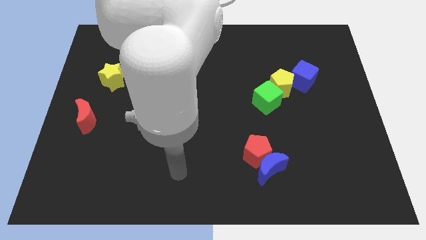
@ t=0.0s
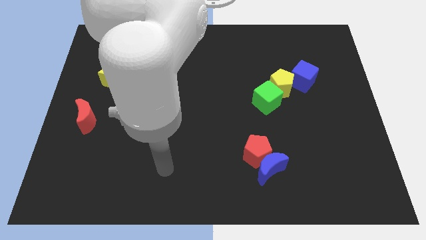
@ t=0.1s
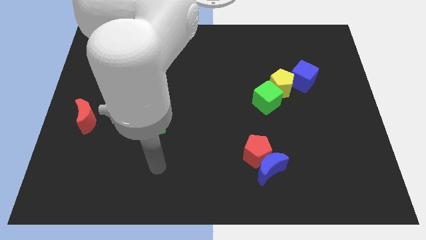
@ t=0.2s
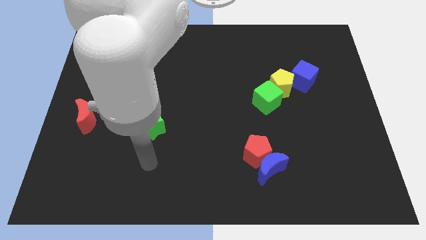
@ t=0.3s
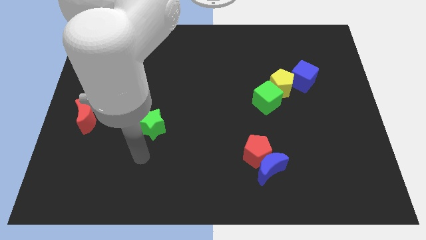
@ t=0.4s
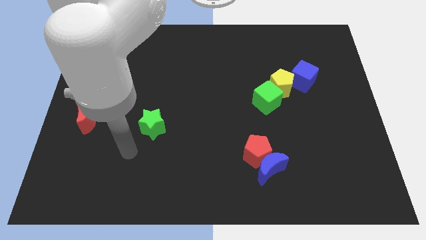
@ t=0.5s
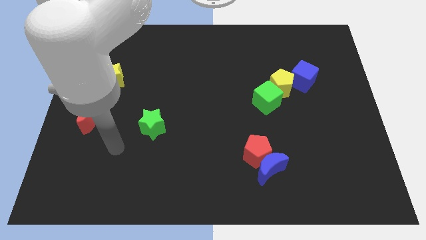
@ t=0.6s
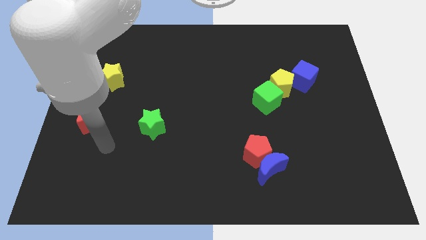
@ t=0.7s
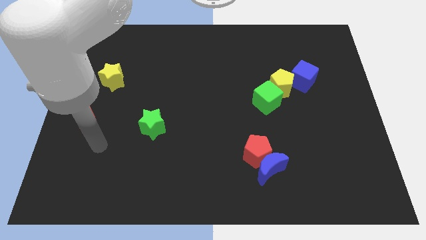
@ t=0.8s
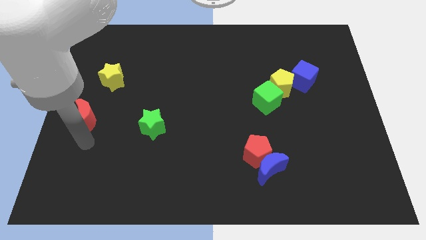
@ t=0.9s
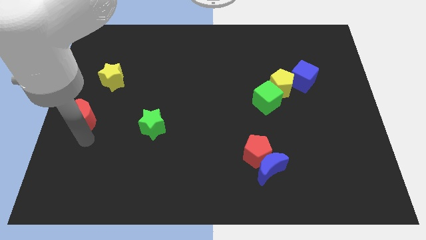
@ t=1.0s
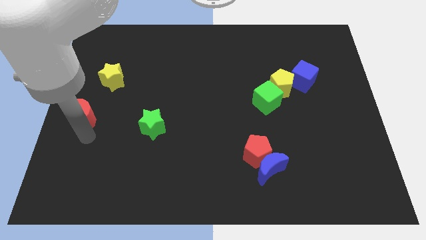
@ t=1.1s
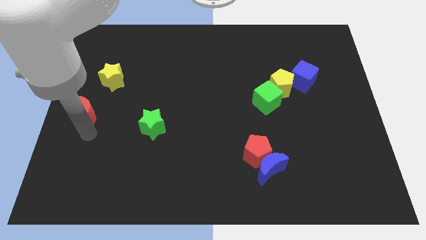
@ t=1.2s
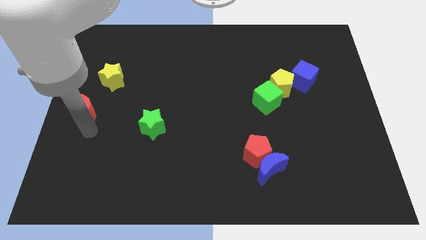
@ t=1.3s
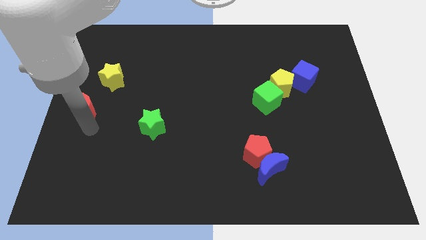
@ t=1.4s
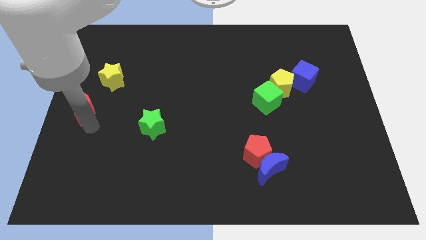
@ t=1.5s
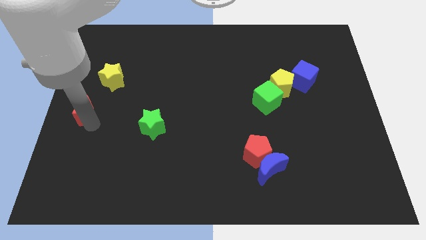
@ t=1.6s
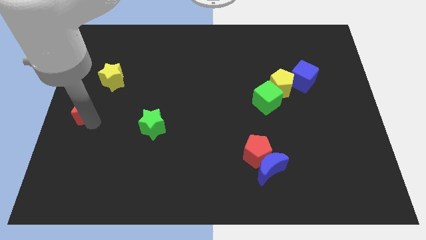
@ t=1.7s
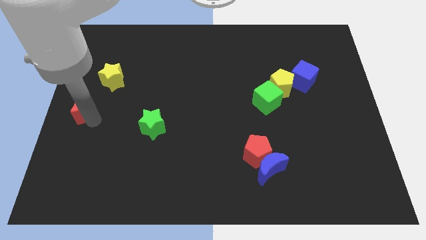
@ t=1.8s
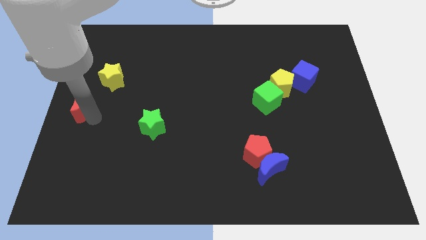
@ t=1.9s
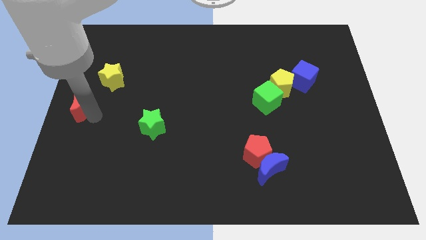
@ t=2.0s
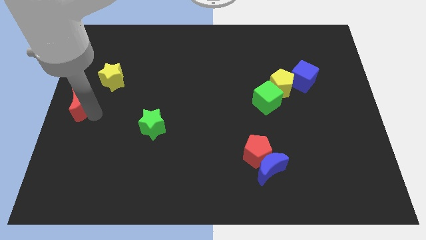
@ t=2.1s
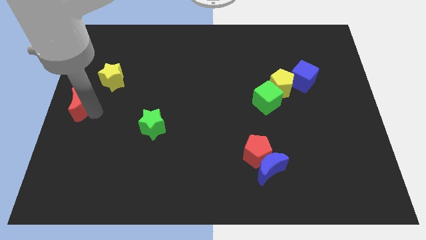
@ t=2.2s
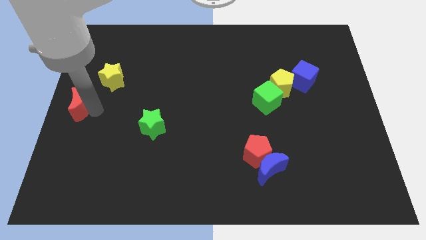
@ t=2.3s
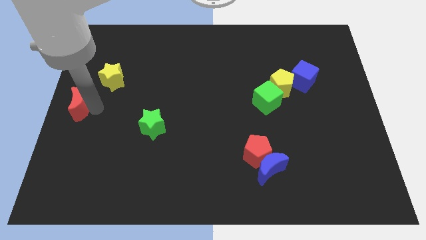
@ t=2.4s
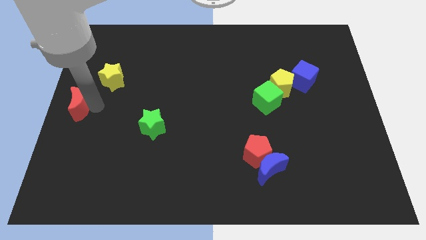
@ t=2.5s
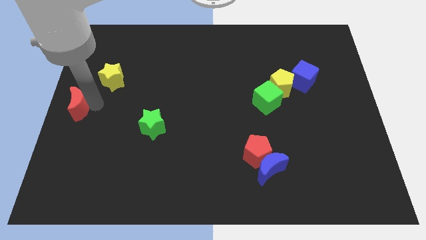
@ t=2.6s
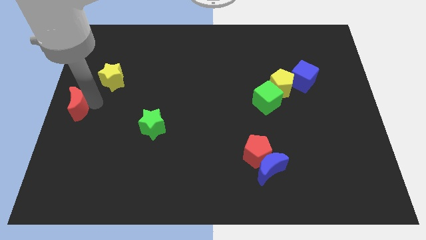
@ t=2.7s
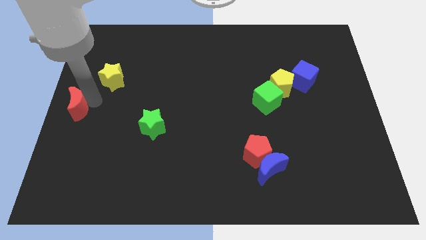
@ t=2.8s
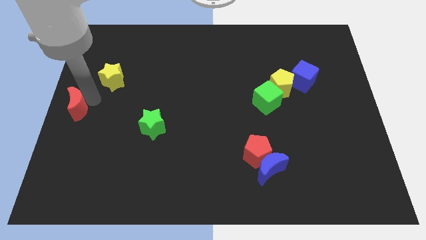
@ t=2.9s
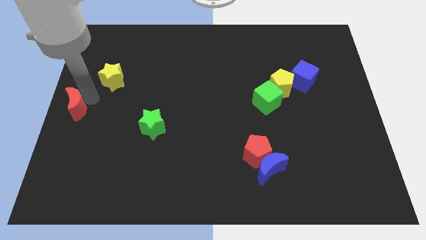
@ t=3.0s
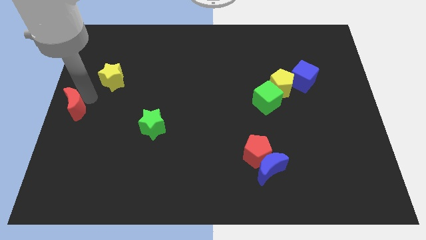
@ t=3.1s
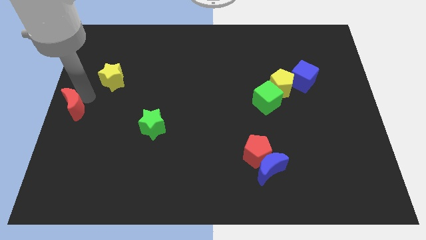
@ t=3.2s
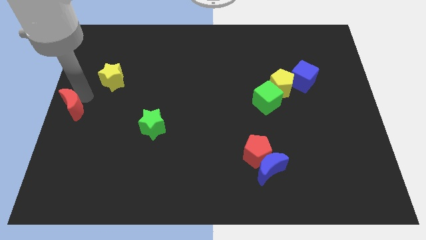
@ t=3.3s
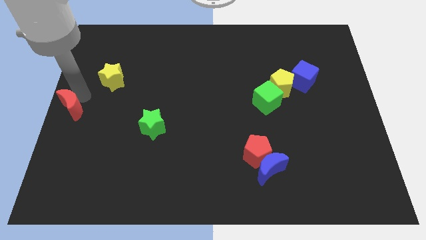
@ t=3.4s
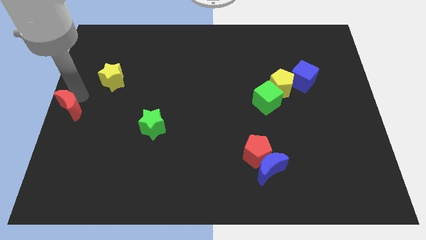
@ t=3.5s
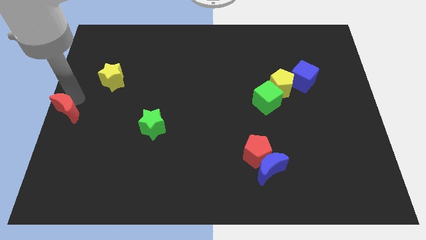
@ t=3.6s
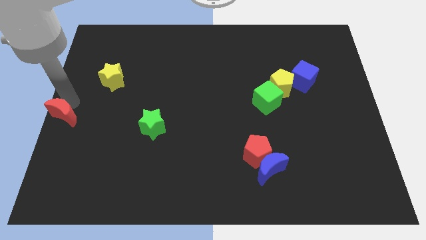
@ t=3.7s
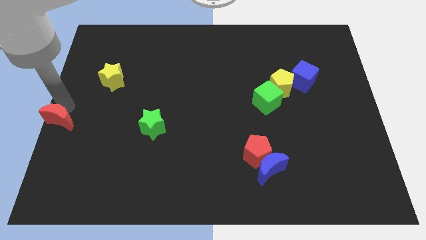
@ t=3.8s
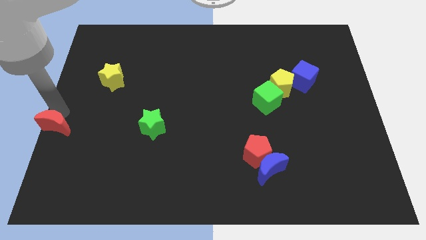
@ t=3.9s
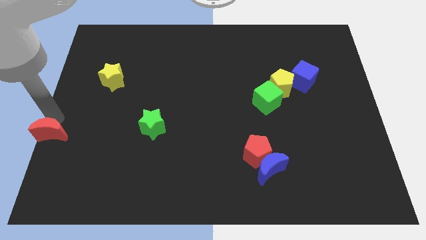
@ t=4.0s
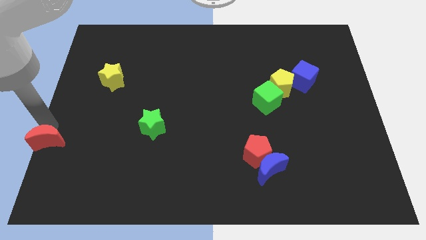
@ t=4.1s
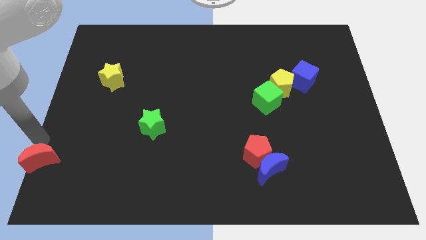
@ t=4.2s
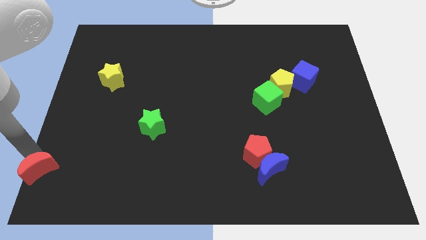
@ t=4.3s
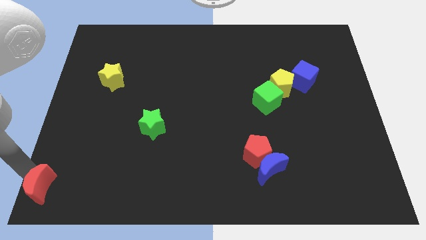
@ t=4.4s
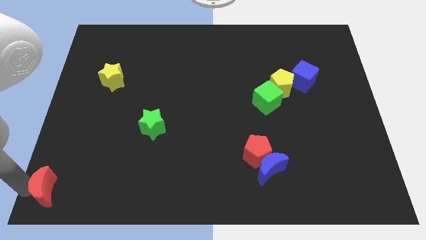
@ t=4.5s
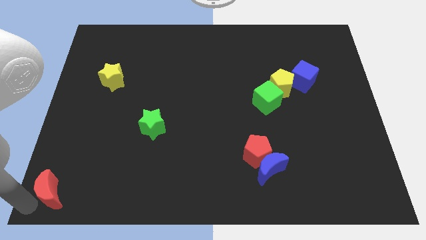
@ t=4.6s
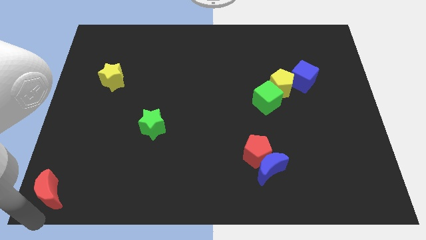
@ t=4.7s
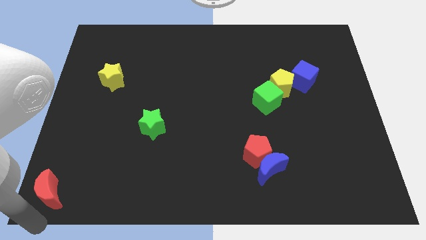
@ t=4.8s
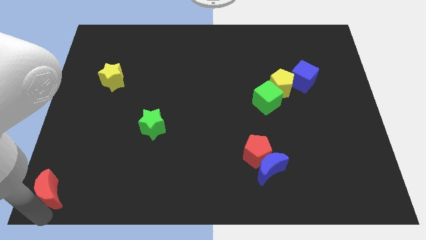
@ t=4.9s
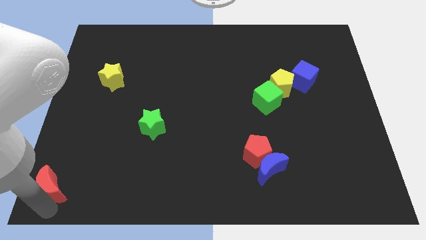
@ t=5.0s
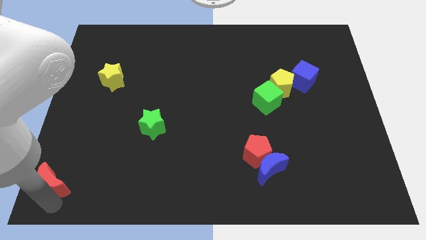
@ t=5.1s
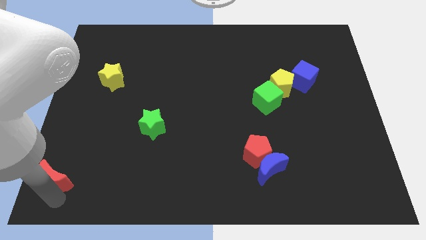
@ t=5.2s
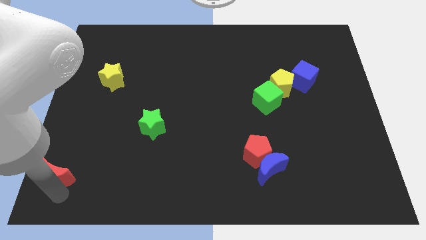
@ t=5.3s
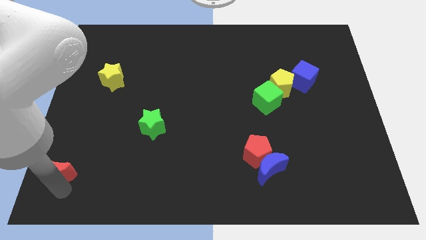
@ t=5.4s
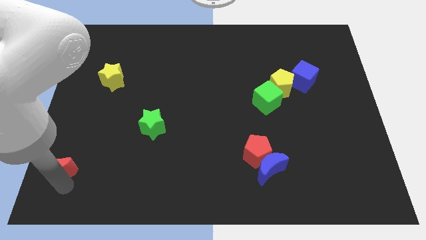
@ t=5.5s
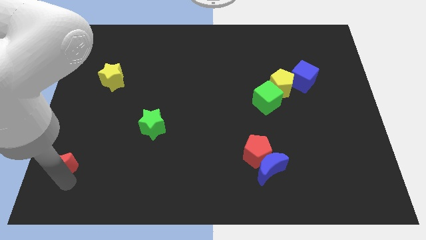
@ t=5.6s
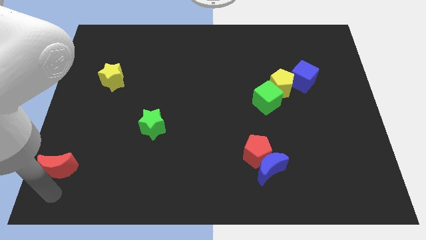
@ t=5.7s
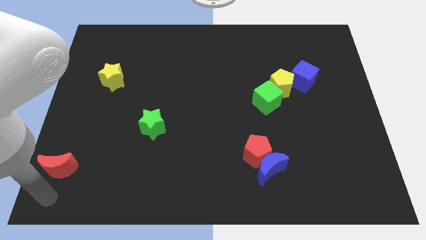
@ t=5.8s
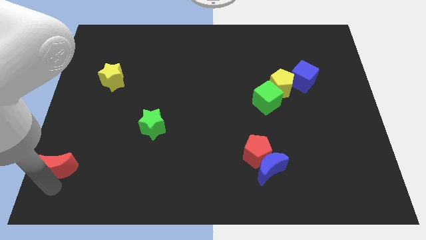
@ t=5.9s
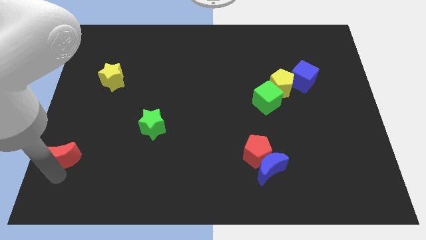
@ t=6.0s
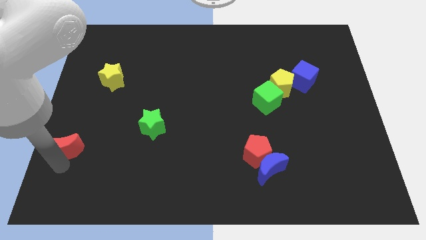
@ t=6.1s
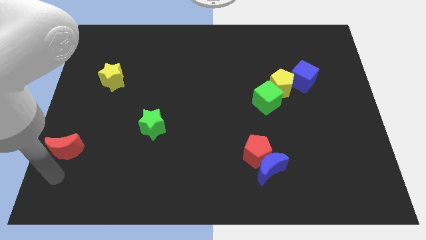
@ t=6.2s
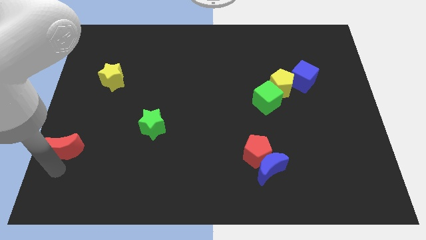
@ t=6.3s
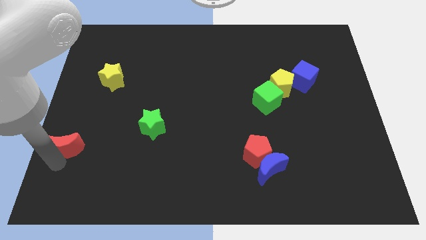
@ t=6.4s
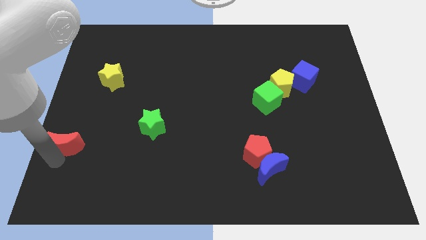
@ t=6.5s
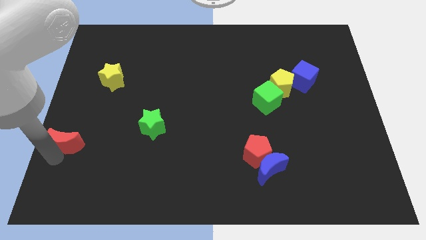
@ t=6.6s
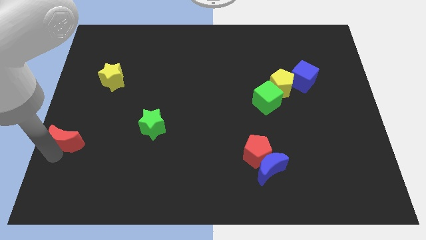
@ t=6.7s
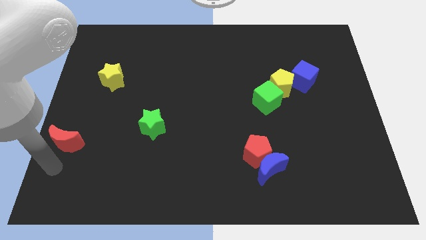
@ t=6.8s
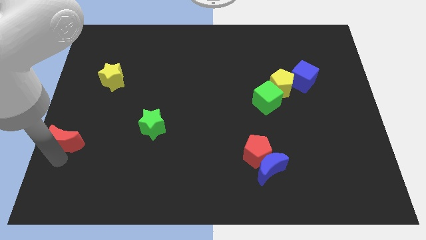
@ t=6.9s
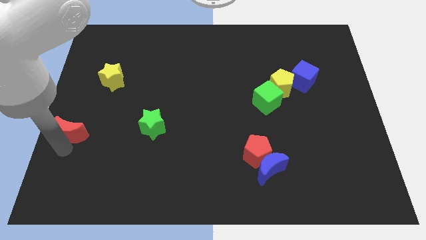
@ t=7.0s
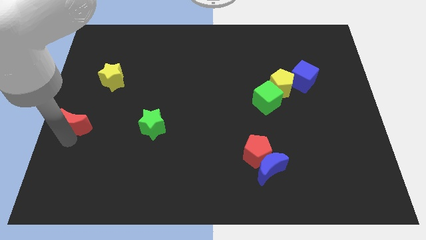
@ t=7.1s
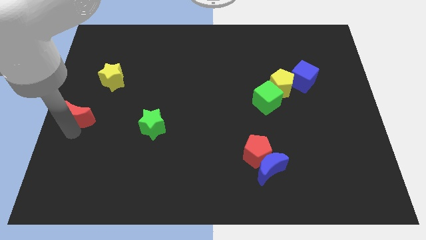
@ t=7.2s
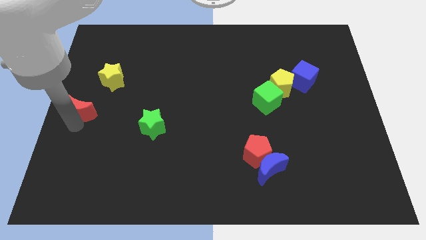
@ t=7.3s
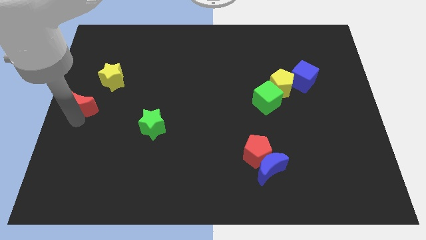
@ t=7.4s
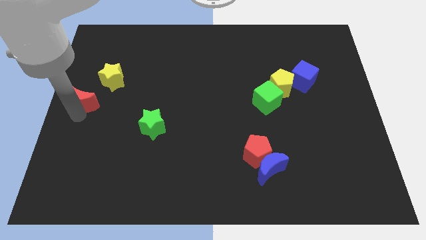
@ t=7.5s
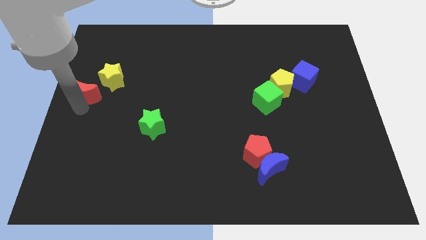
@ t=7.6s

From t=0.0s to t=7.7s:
slightly push the red moon upwards

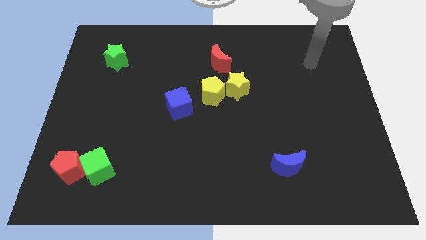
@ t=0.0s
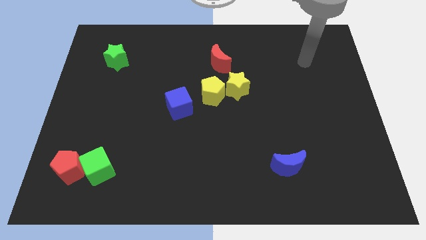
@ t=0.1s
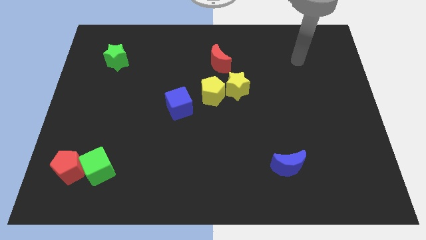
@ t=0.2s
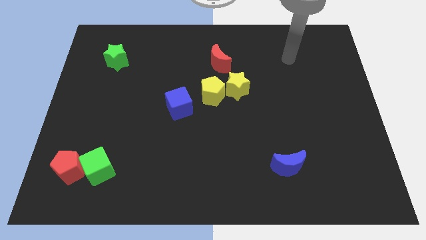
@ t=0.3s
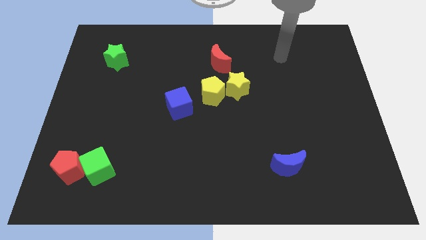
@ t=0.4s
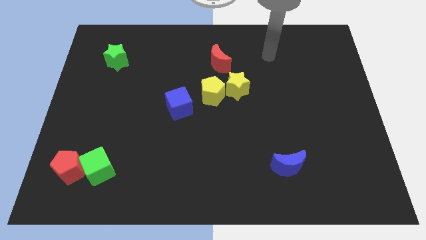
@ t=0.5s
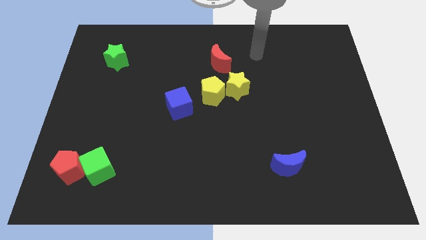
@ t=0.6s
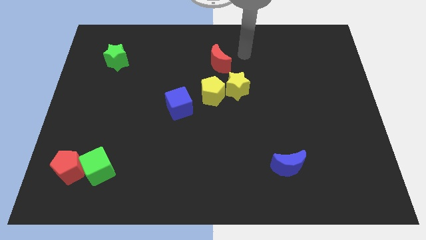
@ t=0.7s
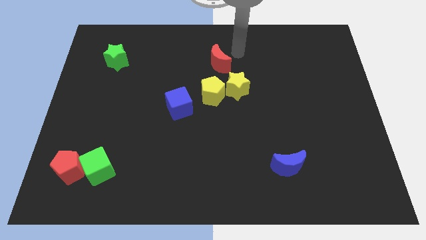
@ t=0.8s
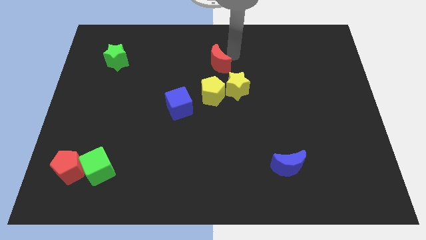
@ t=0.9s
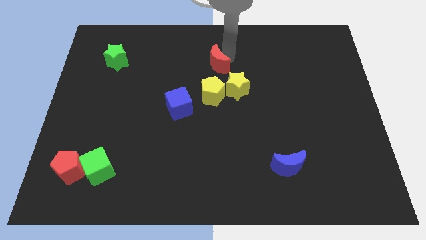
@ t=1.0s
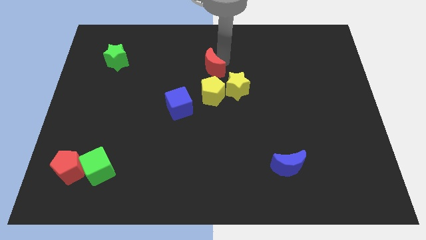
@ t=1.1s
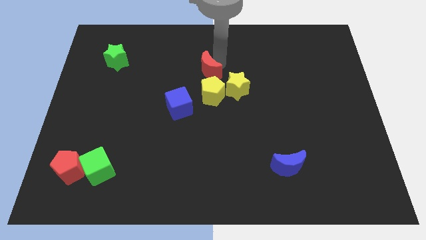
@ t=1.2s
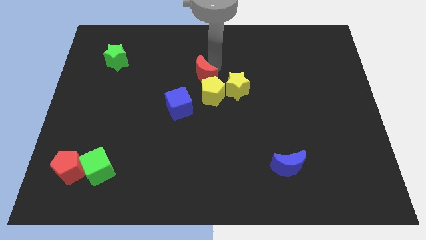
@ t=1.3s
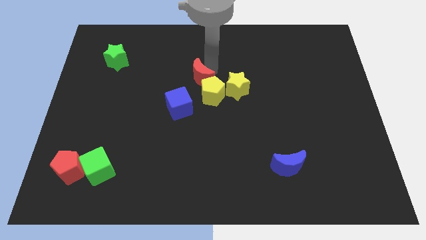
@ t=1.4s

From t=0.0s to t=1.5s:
move the red moon somewhat down and to the left
